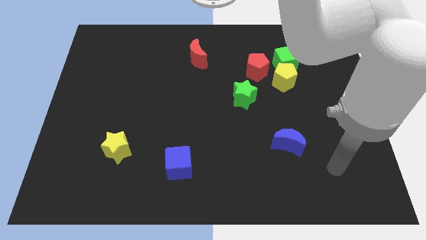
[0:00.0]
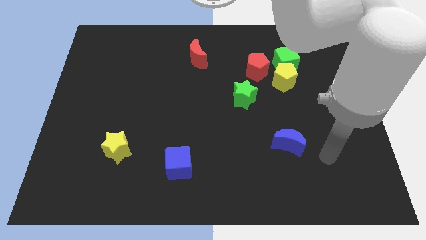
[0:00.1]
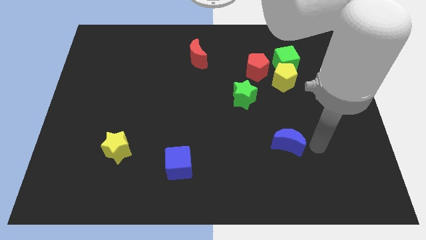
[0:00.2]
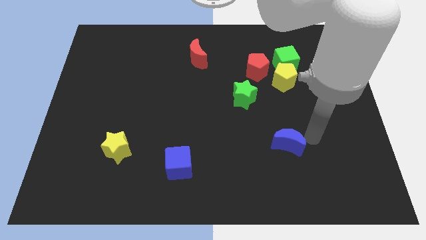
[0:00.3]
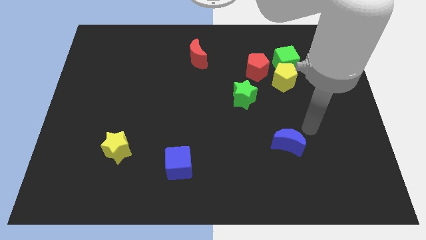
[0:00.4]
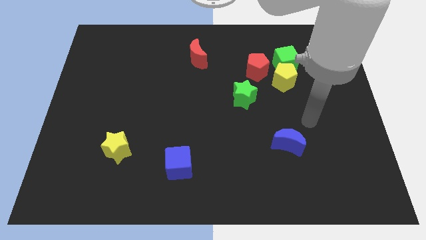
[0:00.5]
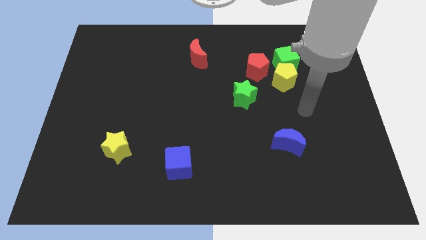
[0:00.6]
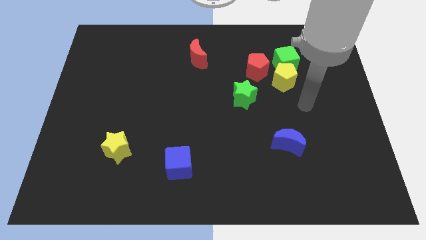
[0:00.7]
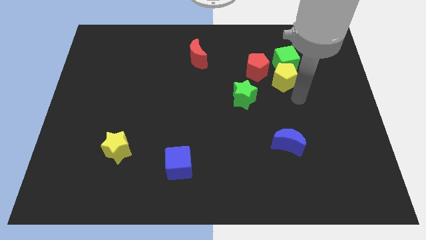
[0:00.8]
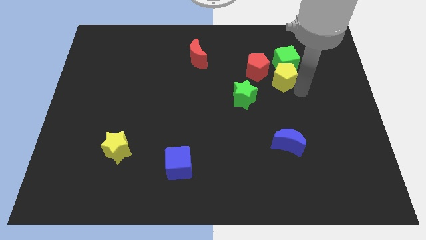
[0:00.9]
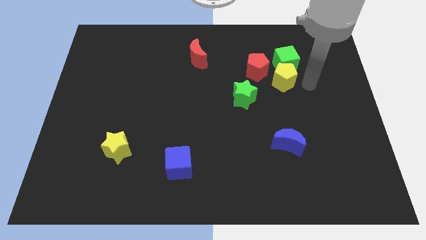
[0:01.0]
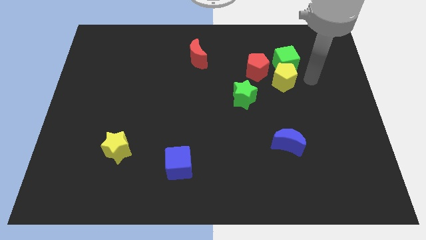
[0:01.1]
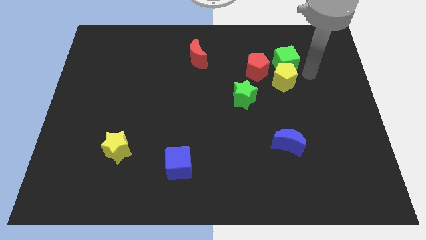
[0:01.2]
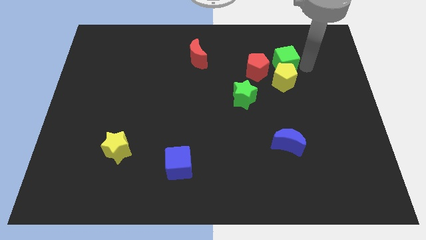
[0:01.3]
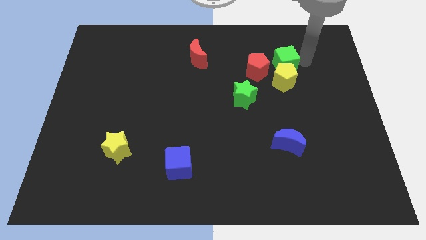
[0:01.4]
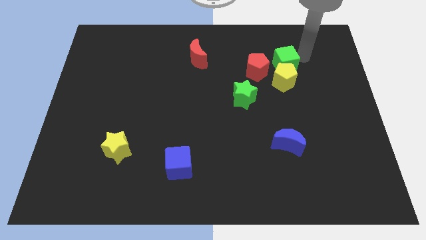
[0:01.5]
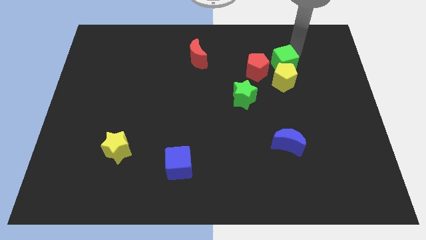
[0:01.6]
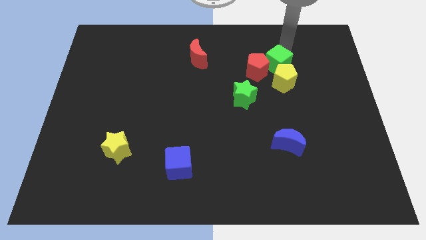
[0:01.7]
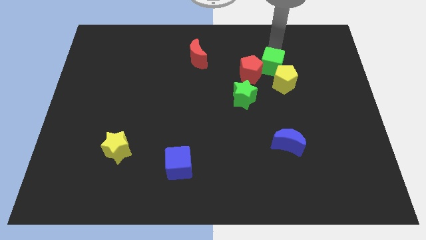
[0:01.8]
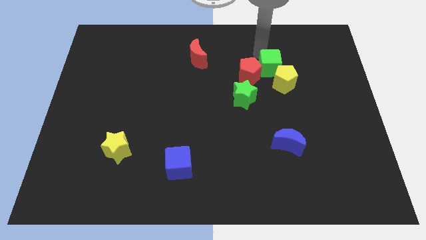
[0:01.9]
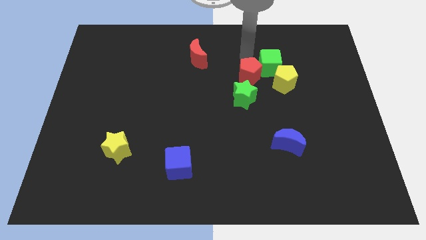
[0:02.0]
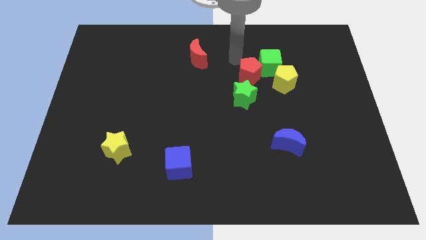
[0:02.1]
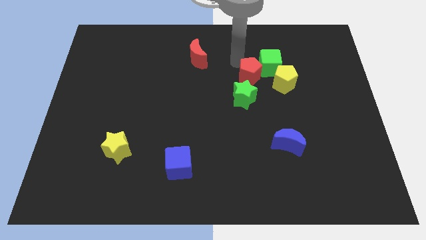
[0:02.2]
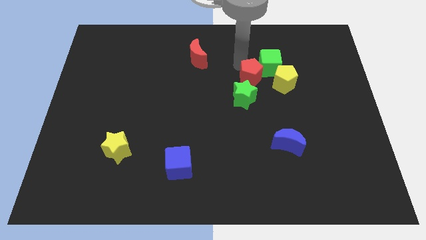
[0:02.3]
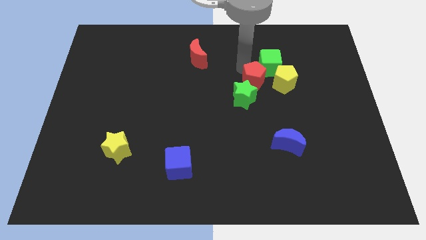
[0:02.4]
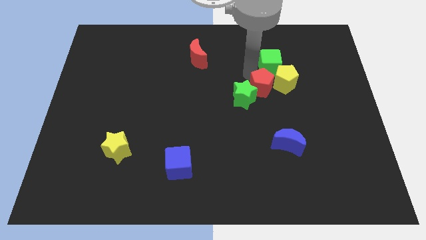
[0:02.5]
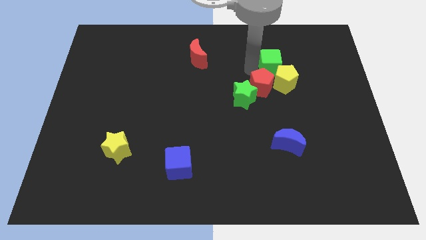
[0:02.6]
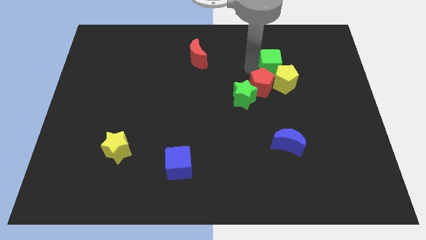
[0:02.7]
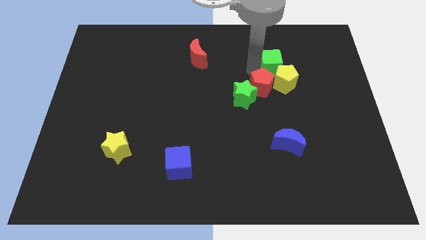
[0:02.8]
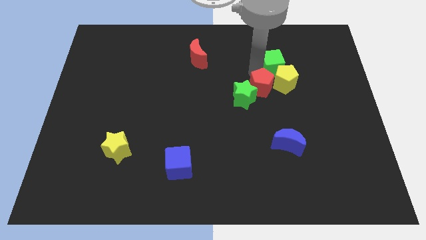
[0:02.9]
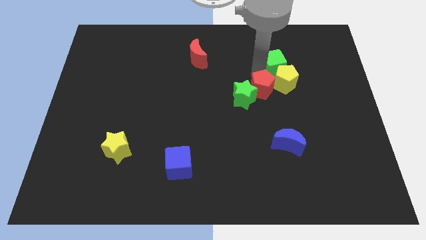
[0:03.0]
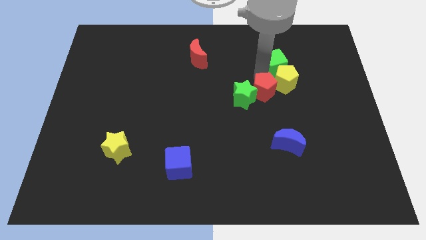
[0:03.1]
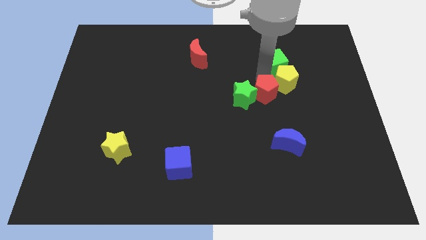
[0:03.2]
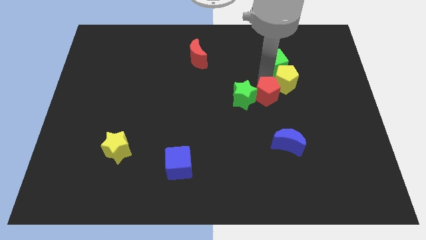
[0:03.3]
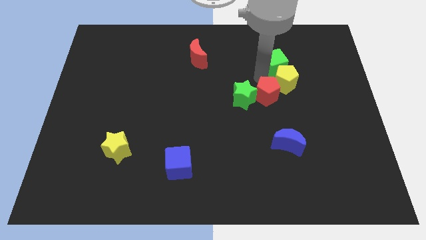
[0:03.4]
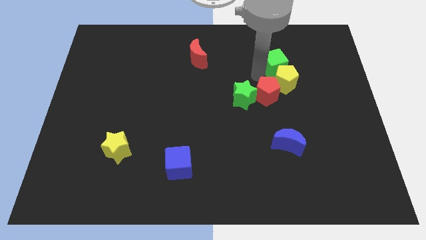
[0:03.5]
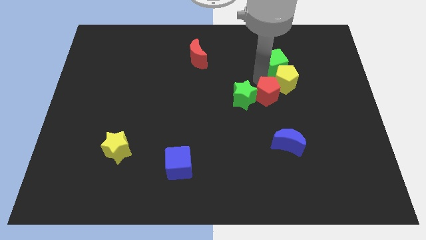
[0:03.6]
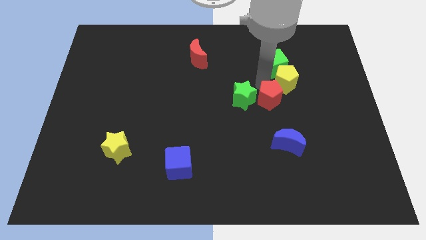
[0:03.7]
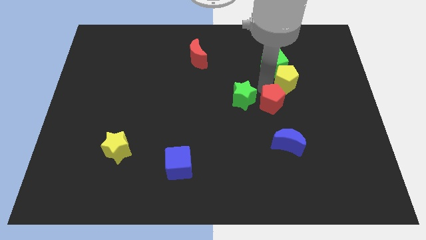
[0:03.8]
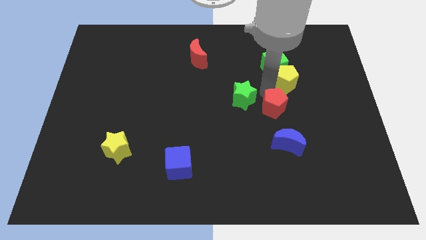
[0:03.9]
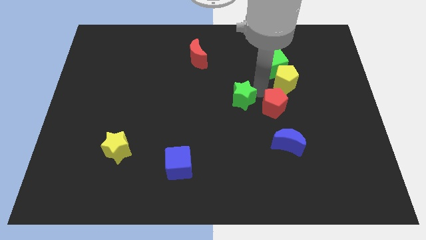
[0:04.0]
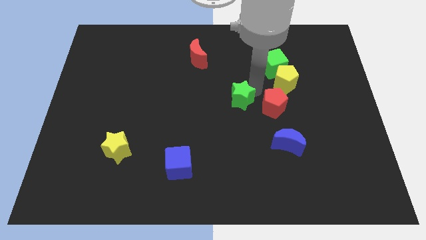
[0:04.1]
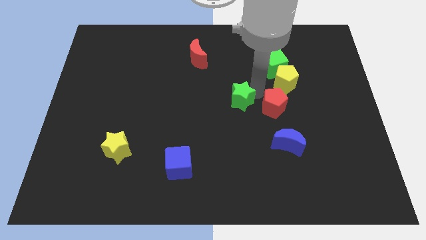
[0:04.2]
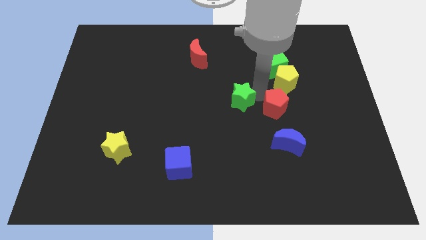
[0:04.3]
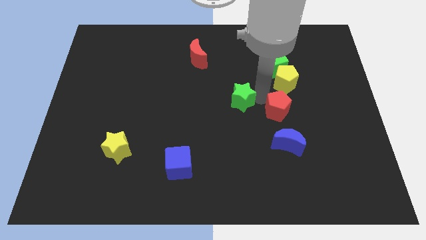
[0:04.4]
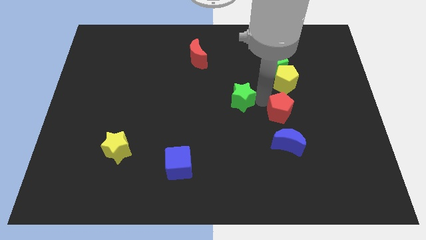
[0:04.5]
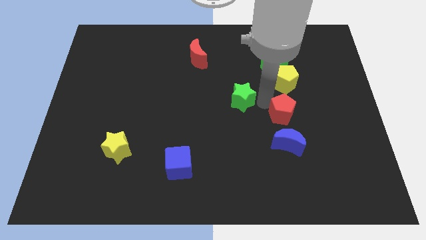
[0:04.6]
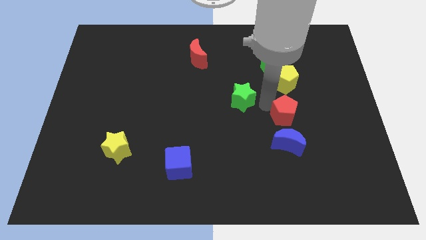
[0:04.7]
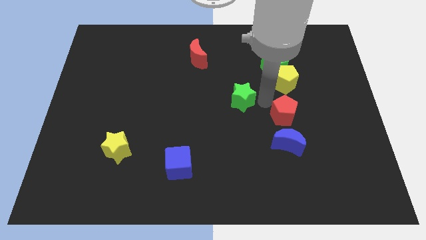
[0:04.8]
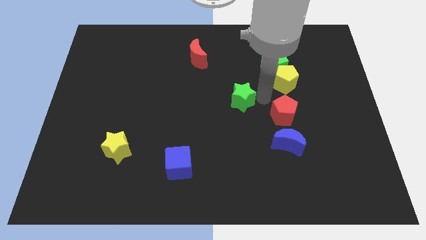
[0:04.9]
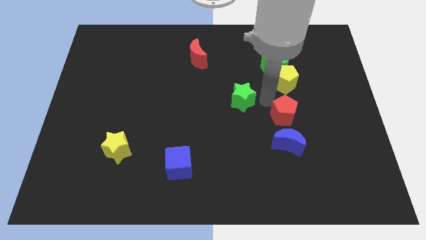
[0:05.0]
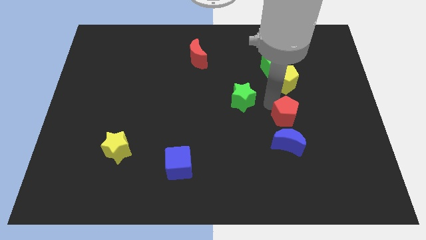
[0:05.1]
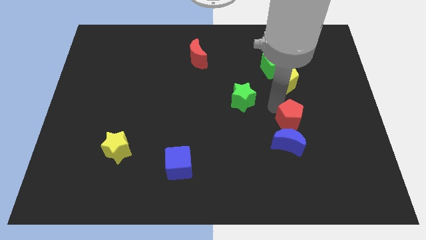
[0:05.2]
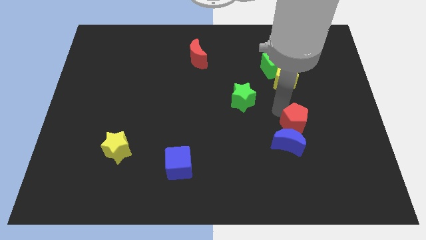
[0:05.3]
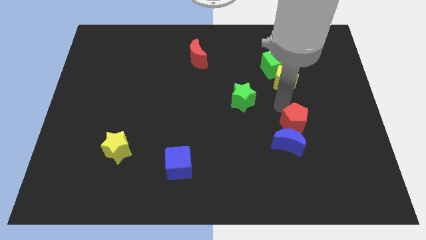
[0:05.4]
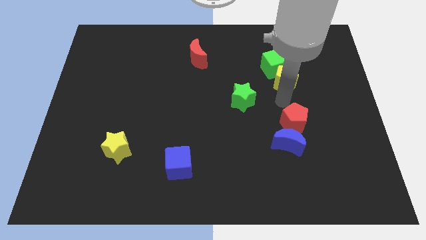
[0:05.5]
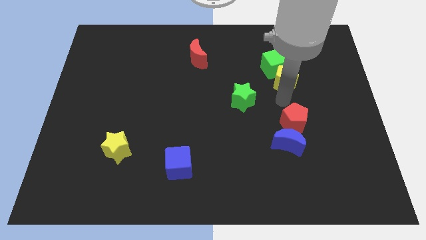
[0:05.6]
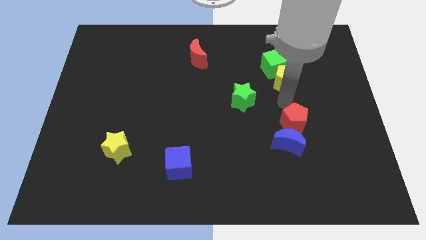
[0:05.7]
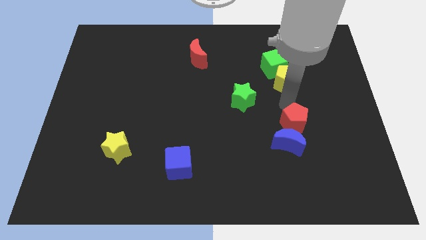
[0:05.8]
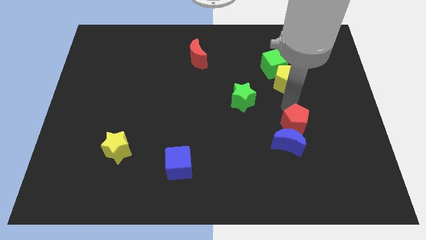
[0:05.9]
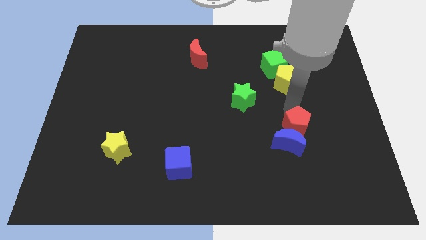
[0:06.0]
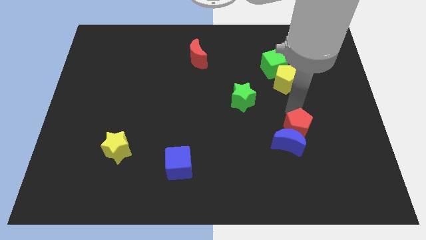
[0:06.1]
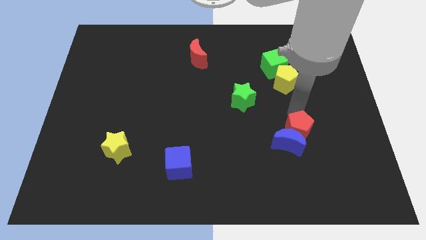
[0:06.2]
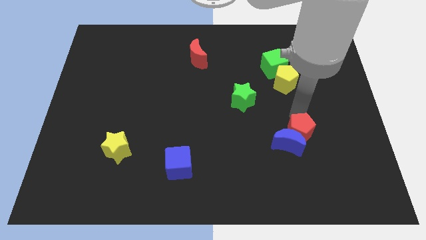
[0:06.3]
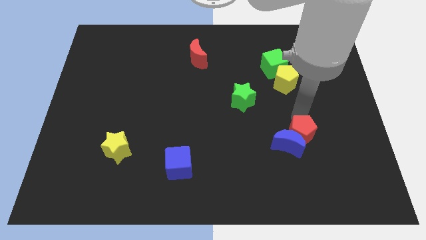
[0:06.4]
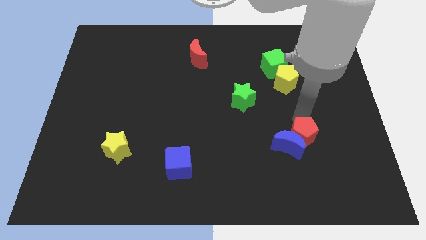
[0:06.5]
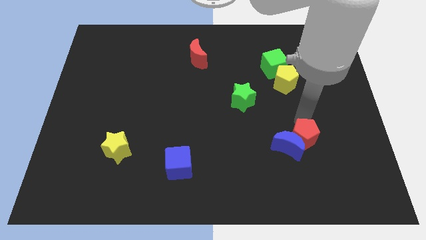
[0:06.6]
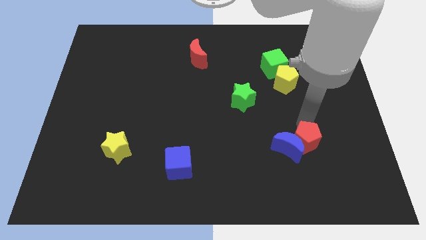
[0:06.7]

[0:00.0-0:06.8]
slide the red pentagon to the bottom right of the blue moon

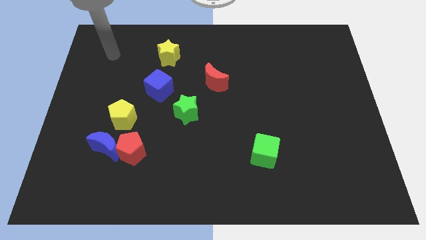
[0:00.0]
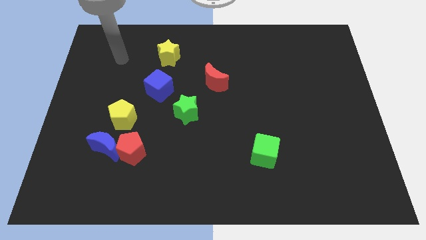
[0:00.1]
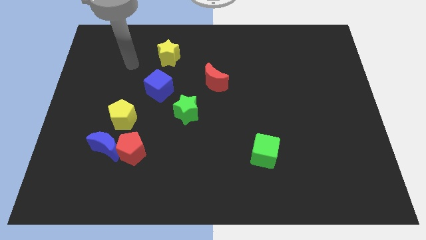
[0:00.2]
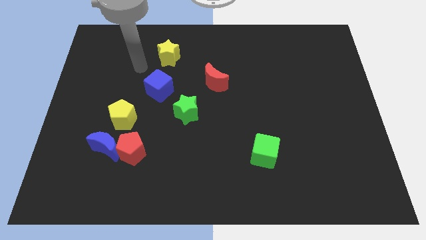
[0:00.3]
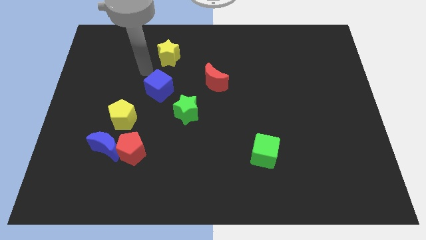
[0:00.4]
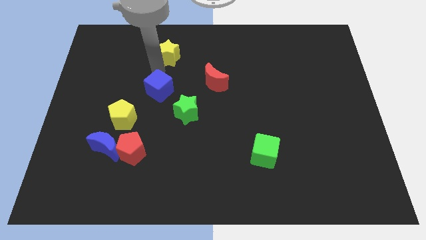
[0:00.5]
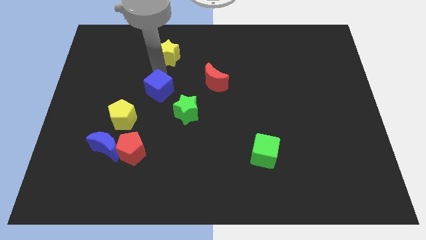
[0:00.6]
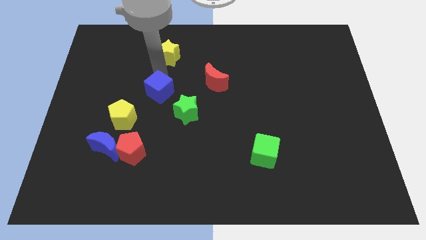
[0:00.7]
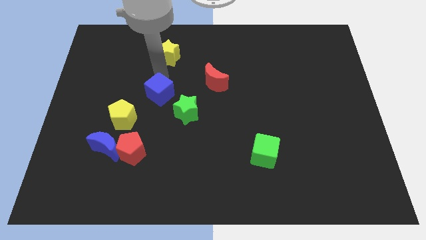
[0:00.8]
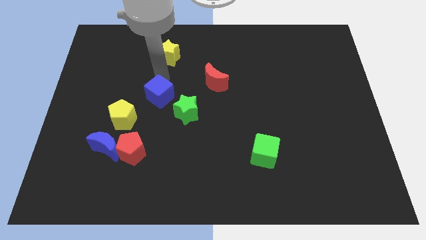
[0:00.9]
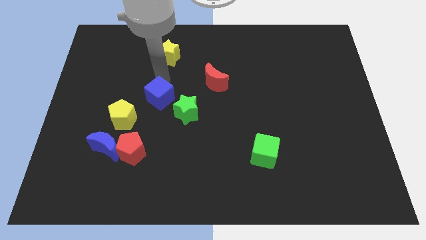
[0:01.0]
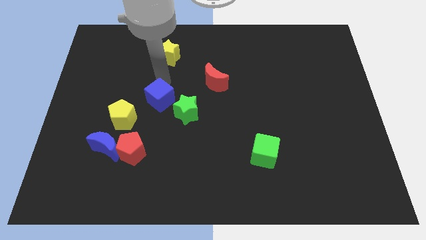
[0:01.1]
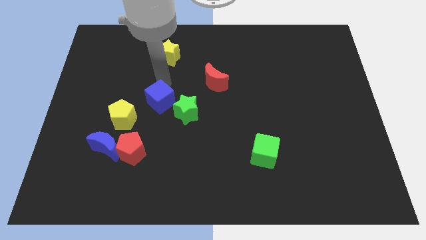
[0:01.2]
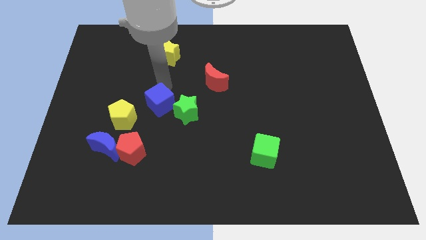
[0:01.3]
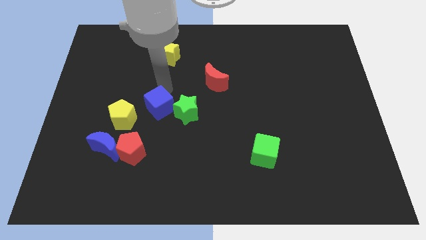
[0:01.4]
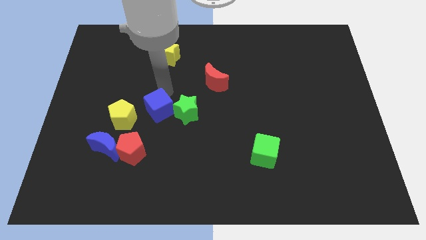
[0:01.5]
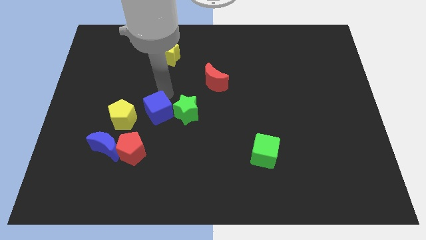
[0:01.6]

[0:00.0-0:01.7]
push the blue cube to the bottom left side of the green star
